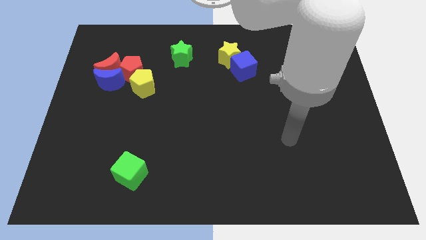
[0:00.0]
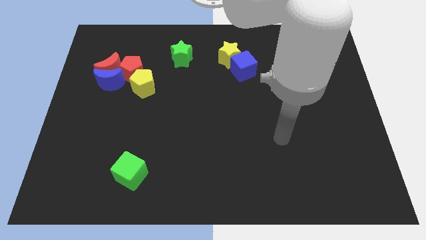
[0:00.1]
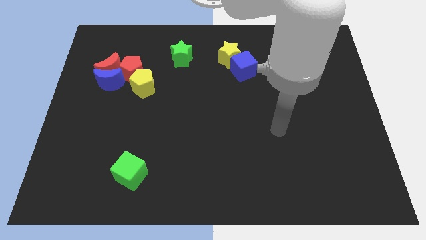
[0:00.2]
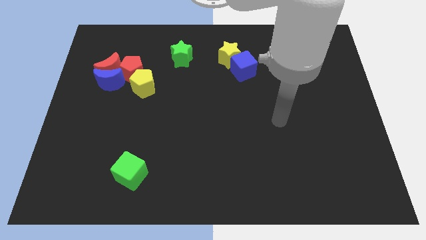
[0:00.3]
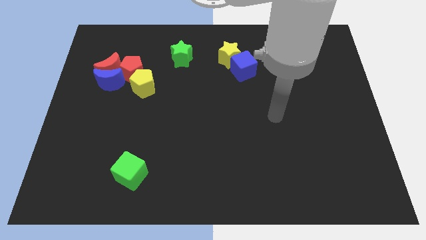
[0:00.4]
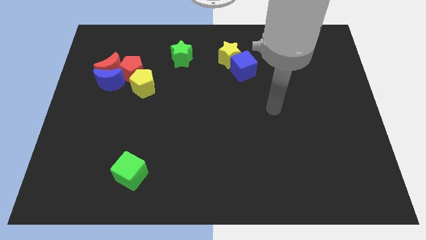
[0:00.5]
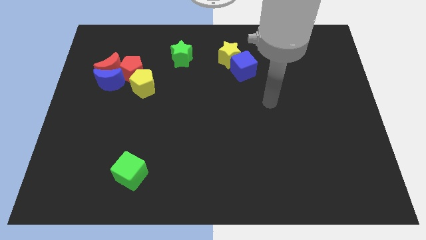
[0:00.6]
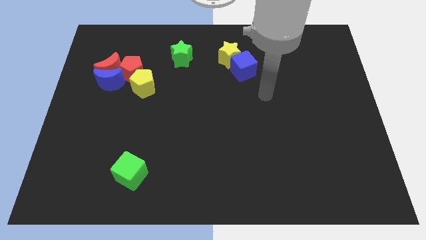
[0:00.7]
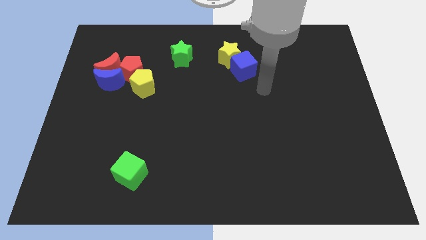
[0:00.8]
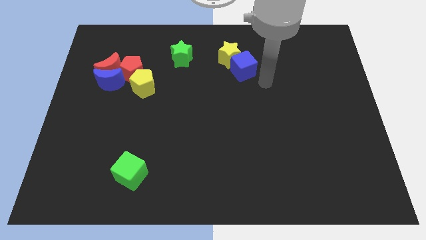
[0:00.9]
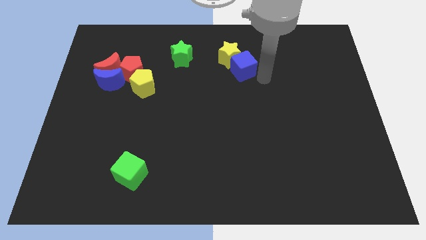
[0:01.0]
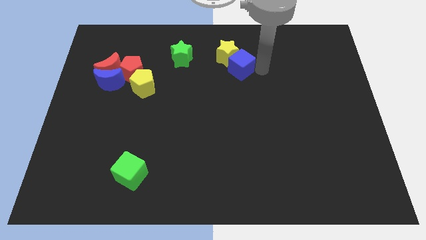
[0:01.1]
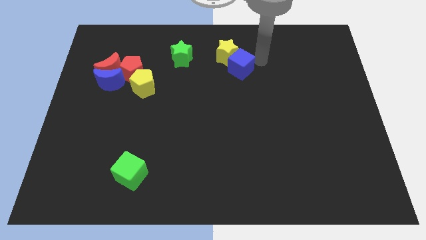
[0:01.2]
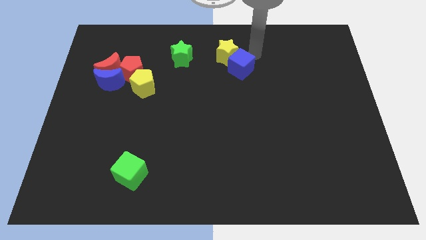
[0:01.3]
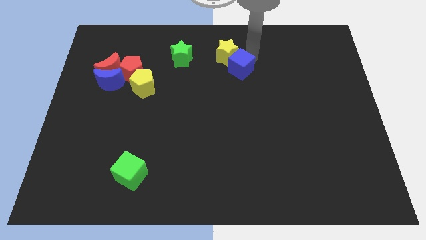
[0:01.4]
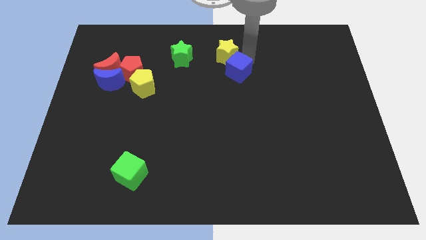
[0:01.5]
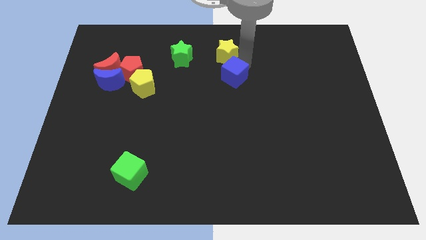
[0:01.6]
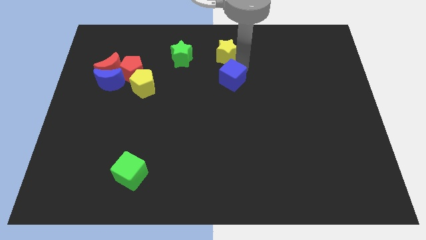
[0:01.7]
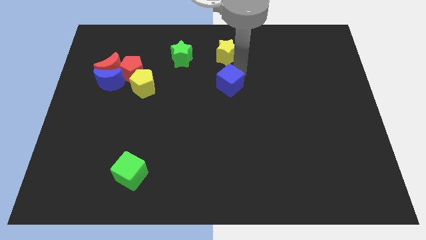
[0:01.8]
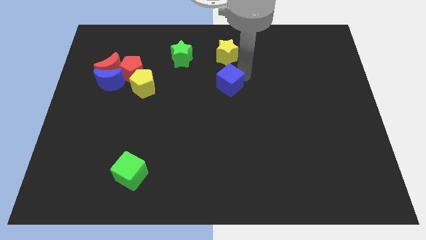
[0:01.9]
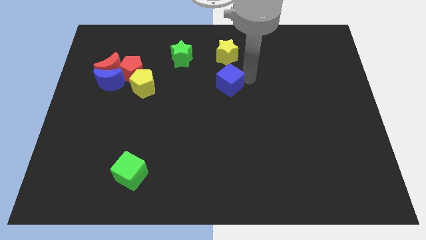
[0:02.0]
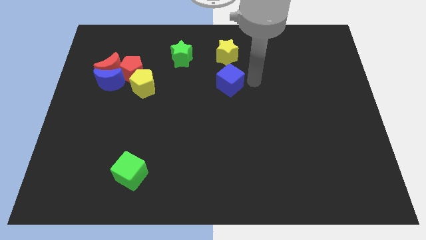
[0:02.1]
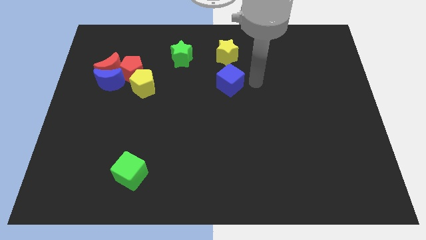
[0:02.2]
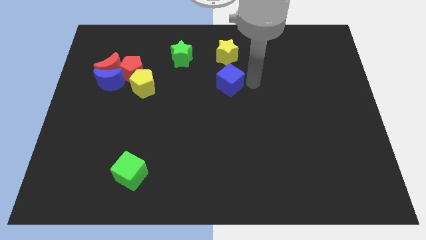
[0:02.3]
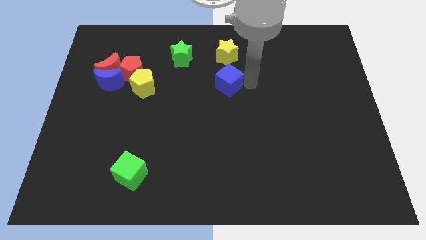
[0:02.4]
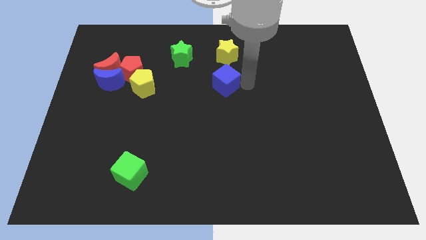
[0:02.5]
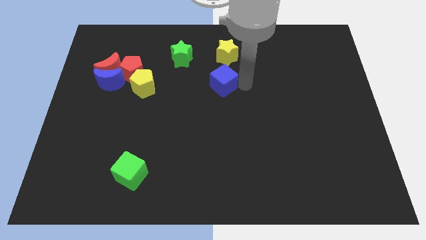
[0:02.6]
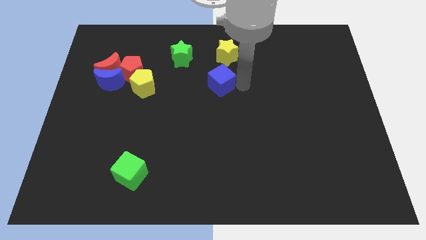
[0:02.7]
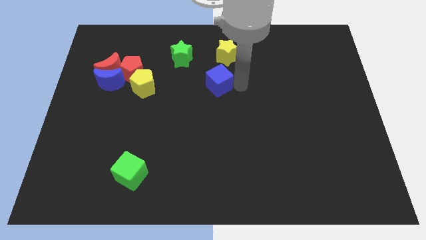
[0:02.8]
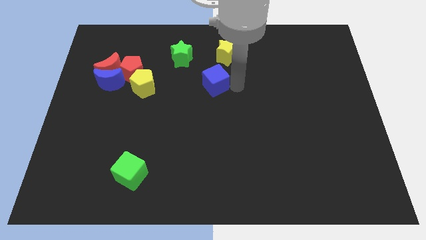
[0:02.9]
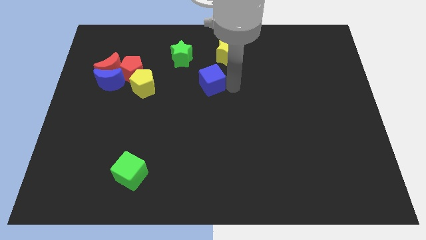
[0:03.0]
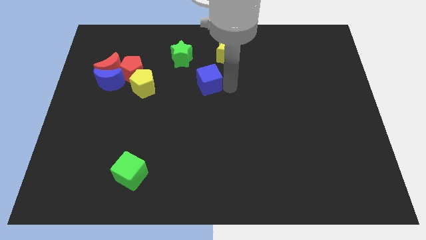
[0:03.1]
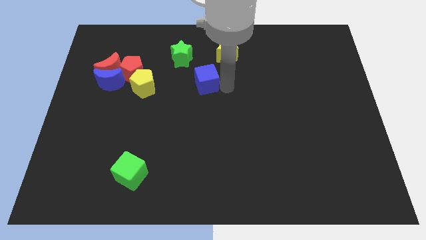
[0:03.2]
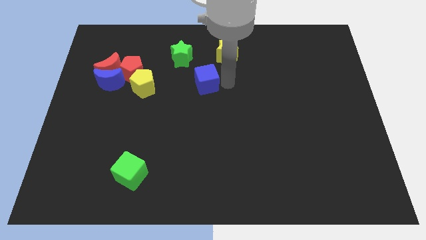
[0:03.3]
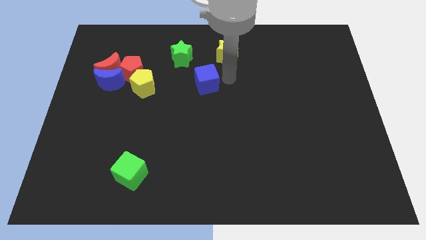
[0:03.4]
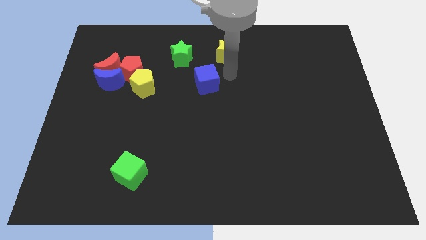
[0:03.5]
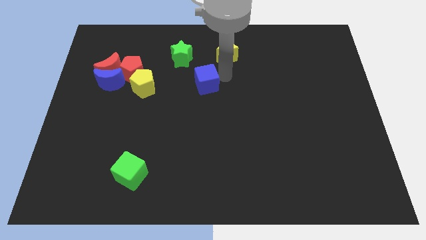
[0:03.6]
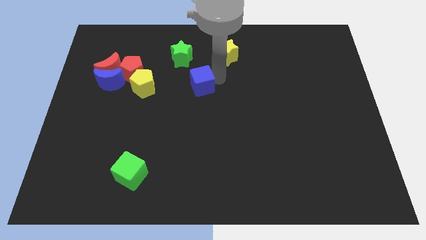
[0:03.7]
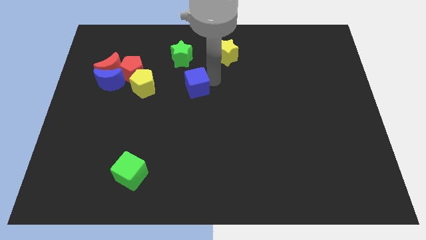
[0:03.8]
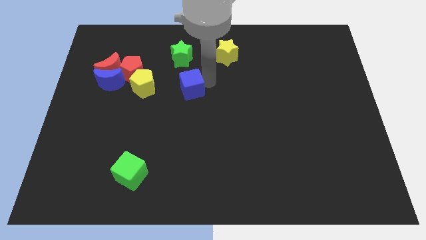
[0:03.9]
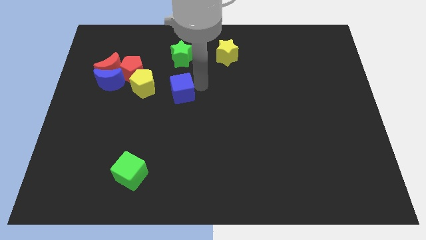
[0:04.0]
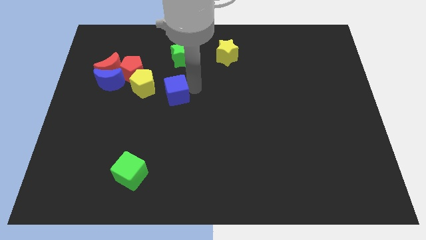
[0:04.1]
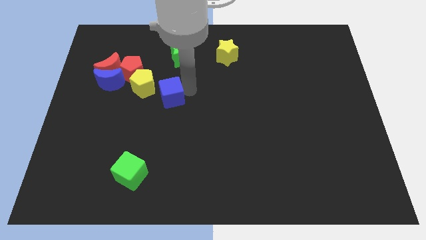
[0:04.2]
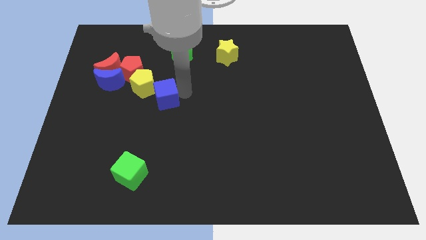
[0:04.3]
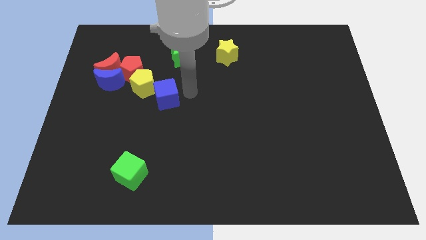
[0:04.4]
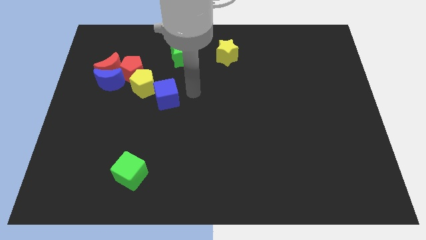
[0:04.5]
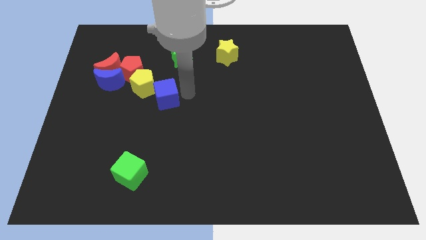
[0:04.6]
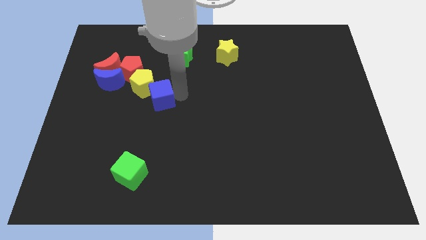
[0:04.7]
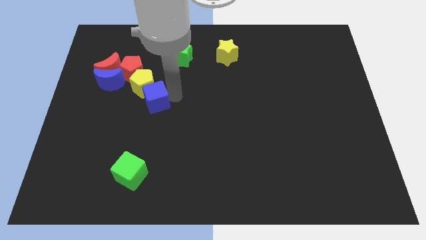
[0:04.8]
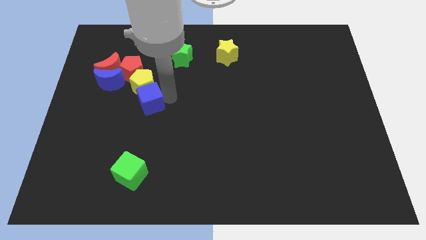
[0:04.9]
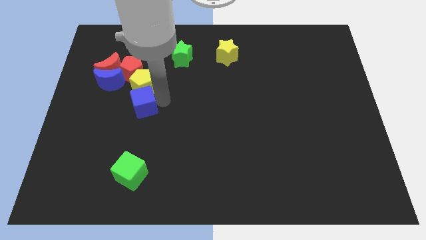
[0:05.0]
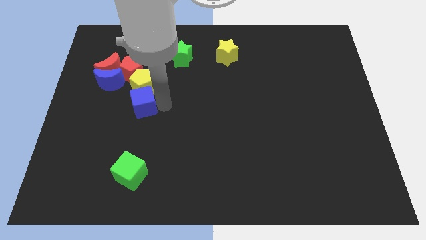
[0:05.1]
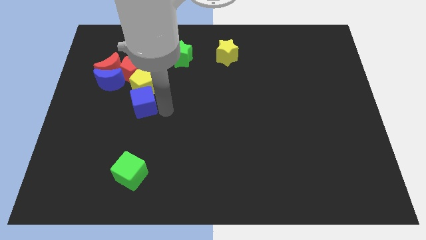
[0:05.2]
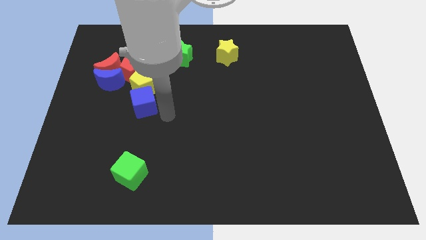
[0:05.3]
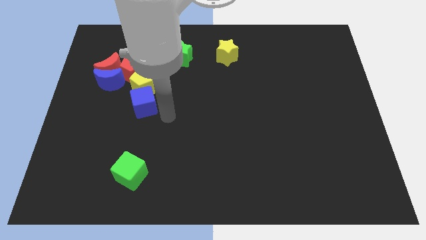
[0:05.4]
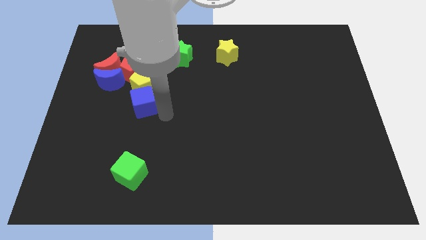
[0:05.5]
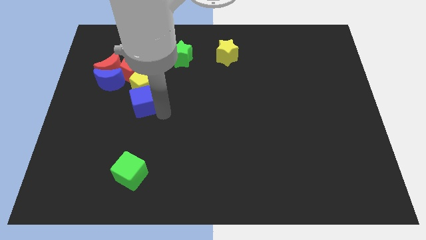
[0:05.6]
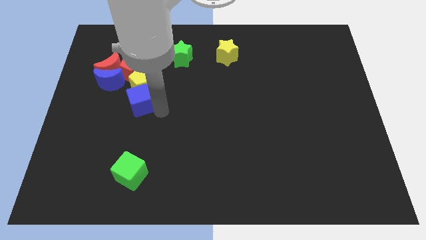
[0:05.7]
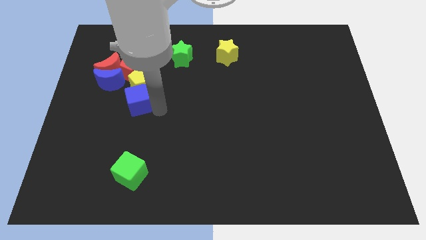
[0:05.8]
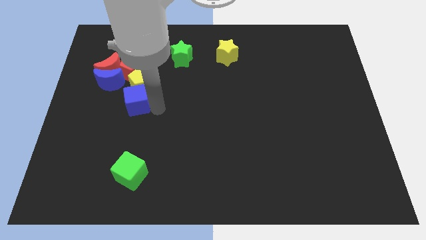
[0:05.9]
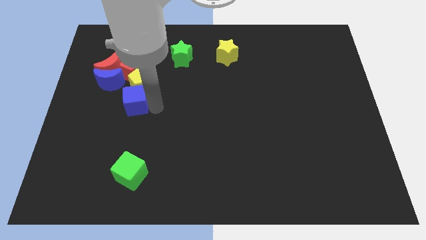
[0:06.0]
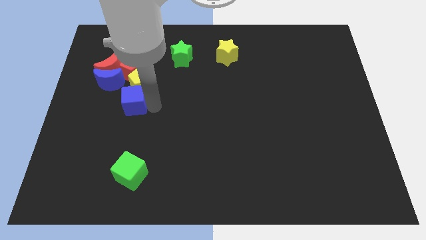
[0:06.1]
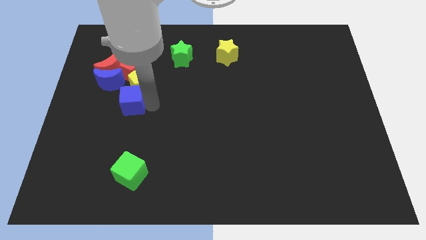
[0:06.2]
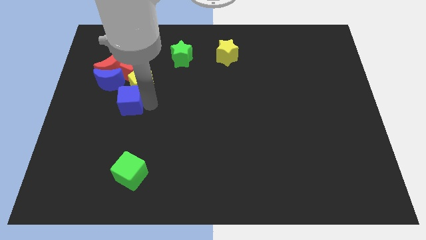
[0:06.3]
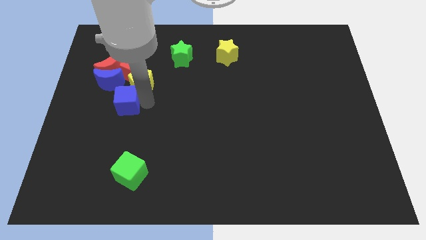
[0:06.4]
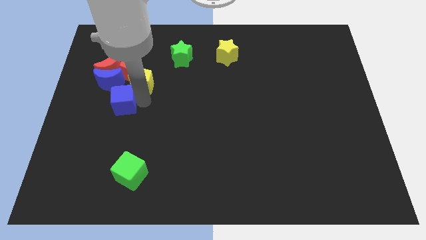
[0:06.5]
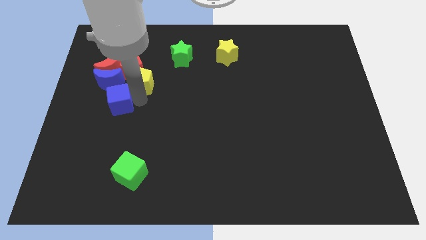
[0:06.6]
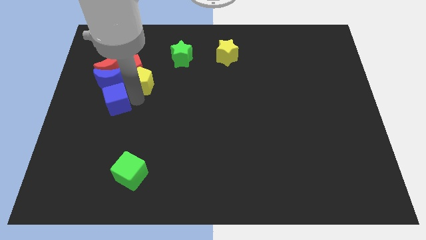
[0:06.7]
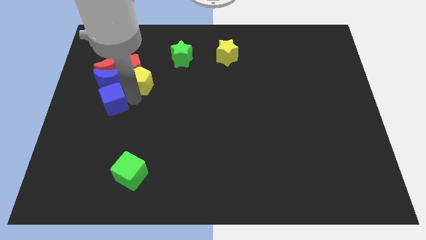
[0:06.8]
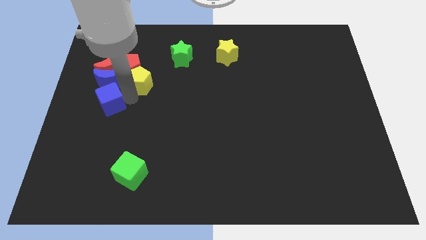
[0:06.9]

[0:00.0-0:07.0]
slide the blue cube next to the blue moon

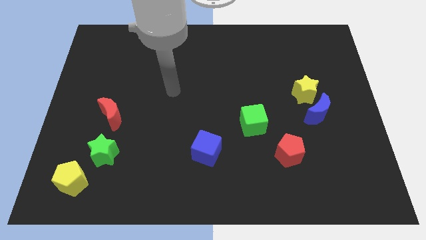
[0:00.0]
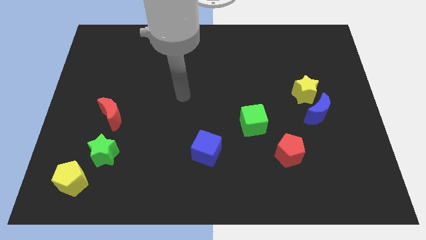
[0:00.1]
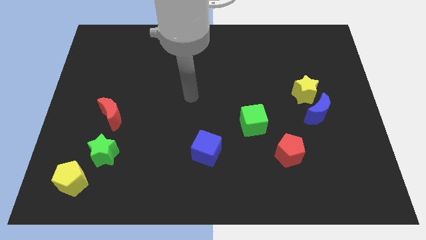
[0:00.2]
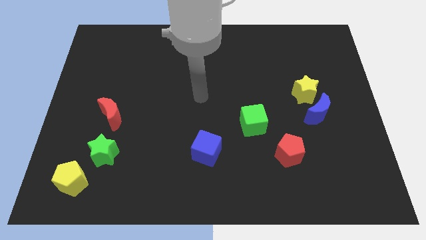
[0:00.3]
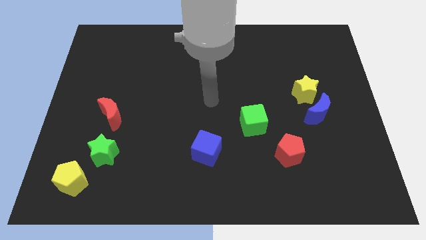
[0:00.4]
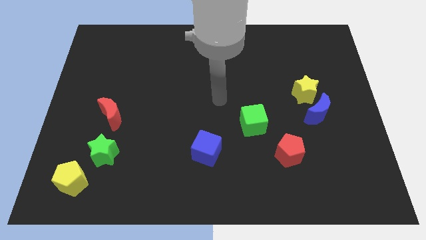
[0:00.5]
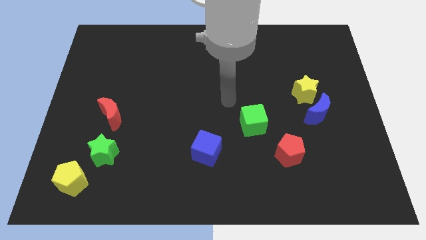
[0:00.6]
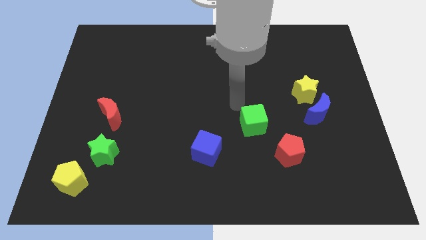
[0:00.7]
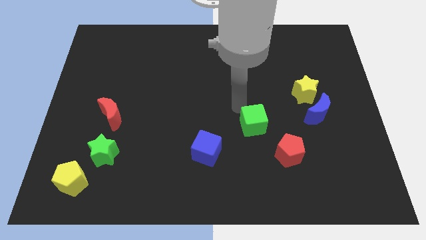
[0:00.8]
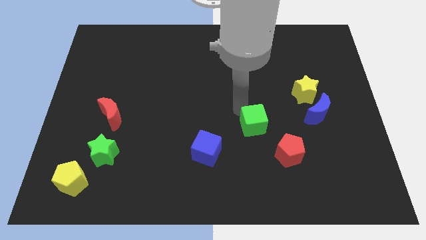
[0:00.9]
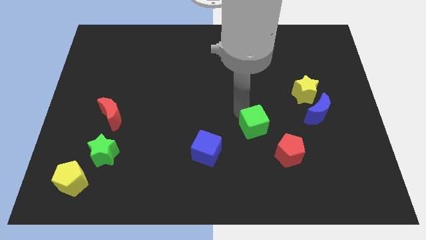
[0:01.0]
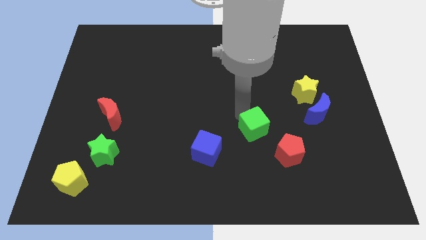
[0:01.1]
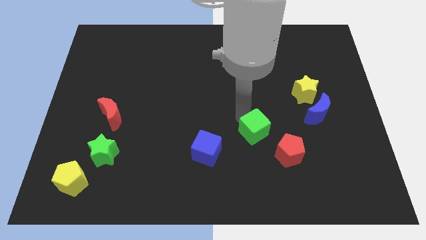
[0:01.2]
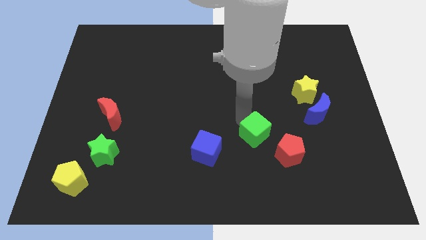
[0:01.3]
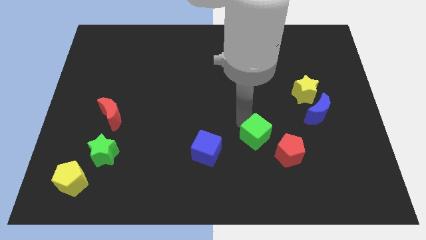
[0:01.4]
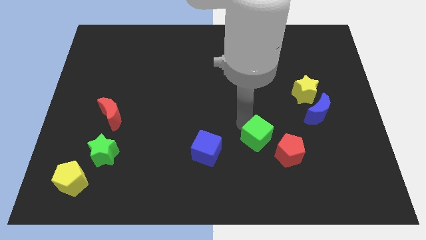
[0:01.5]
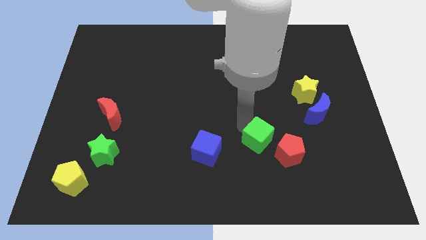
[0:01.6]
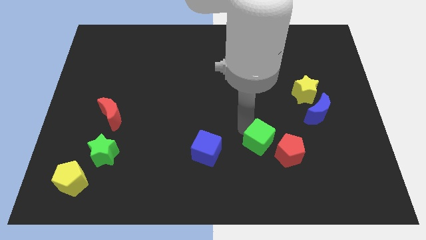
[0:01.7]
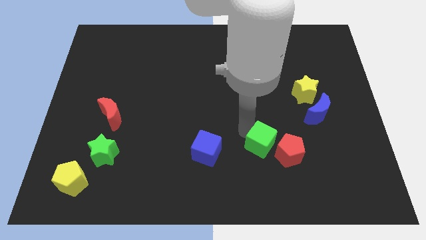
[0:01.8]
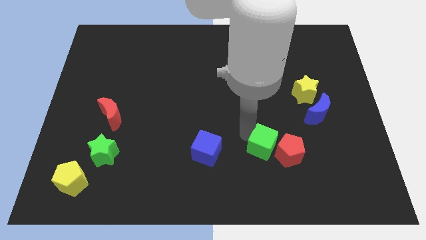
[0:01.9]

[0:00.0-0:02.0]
push the green cube next to the red pentagon
